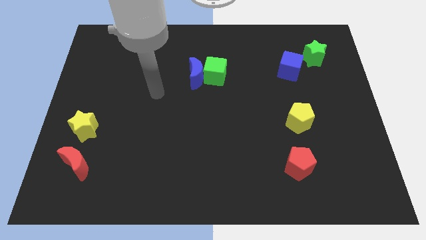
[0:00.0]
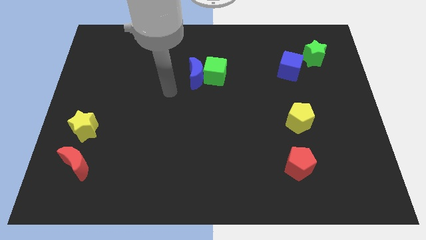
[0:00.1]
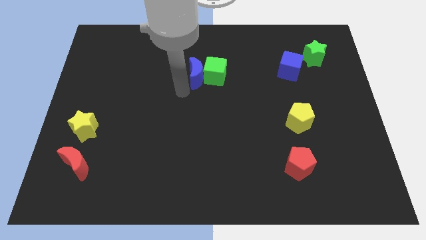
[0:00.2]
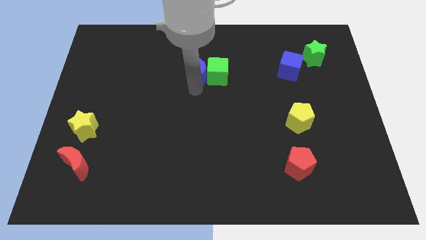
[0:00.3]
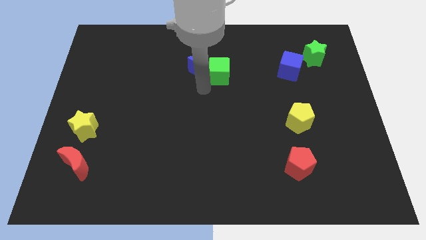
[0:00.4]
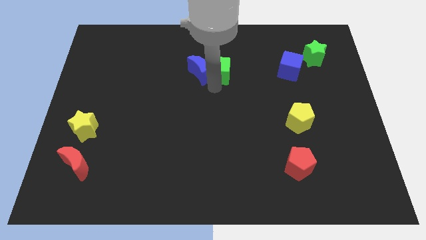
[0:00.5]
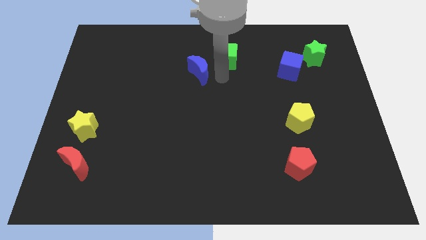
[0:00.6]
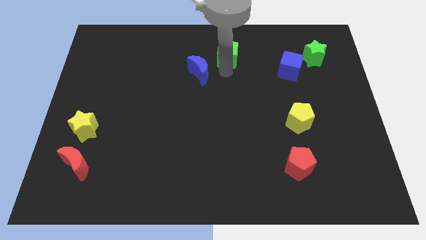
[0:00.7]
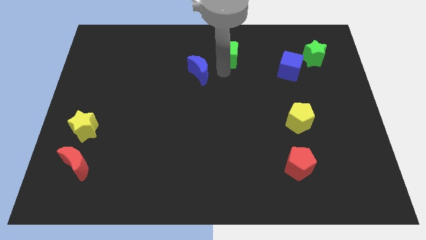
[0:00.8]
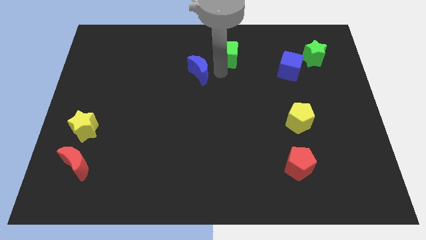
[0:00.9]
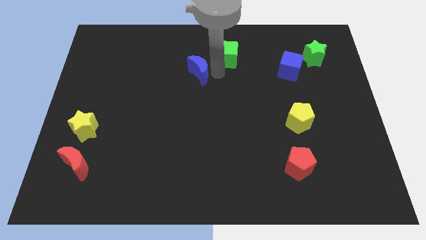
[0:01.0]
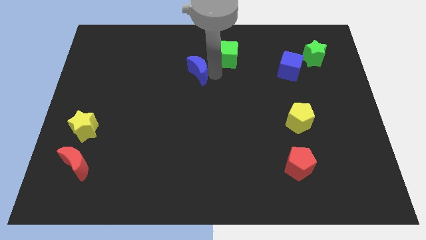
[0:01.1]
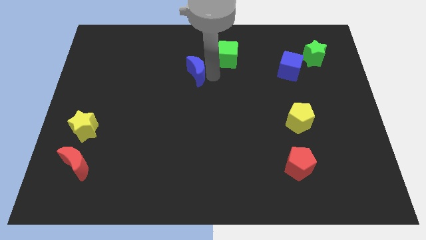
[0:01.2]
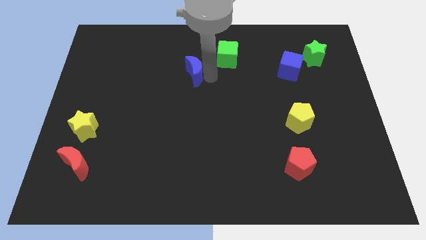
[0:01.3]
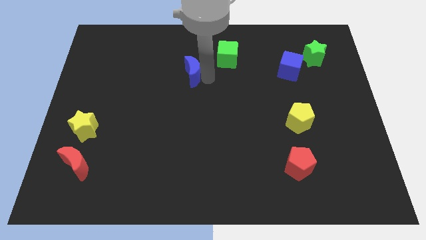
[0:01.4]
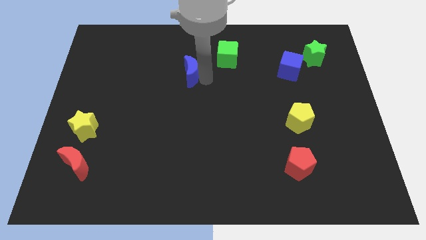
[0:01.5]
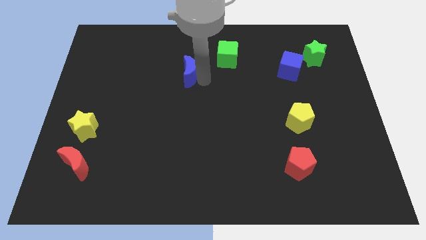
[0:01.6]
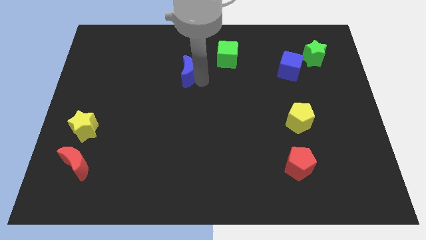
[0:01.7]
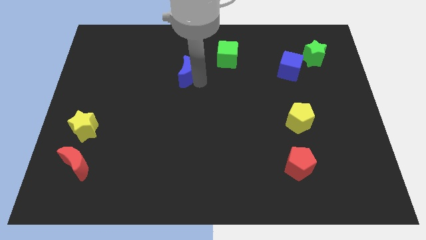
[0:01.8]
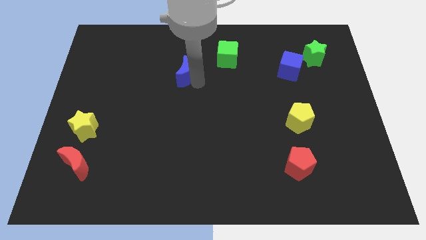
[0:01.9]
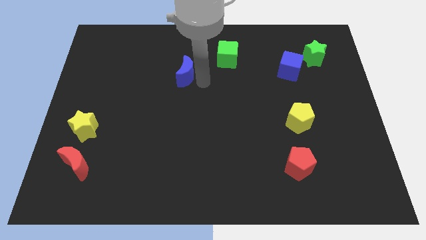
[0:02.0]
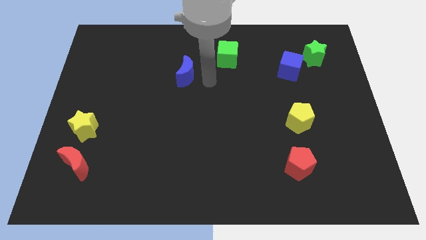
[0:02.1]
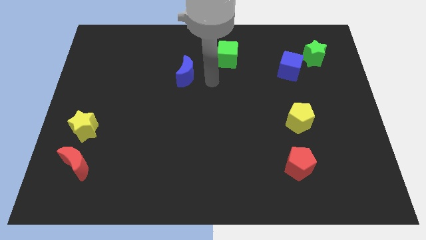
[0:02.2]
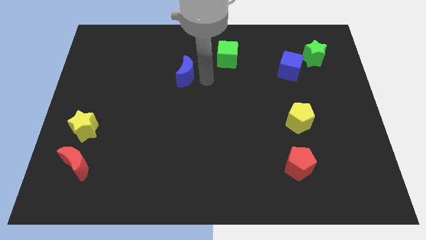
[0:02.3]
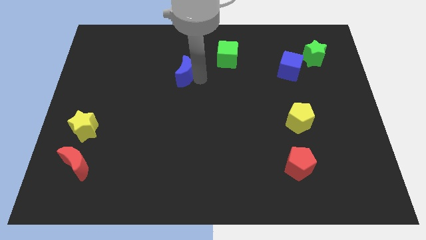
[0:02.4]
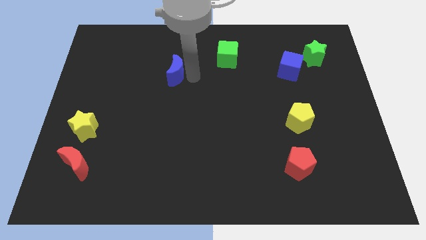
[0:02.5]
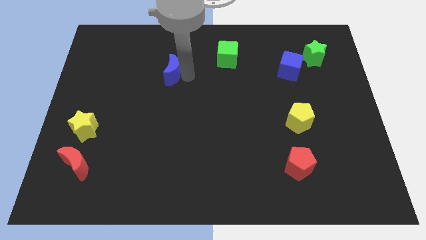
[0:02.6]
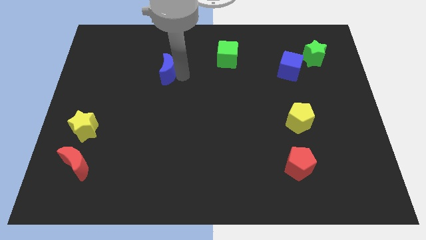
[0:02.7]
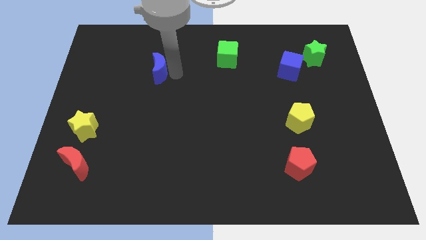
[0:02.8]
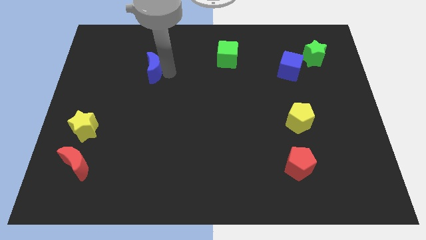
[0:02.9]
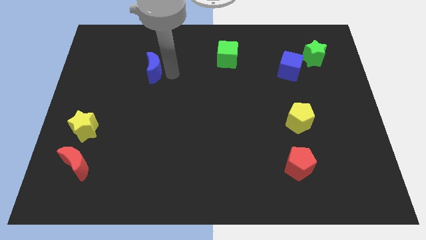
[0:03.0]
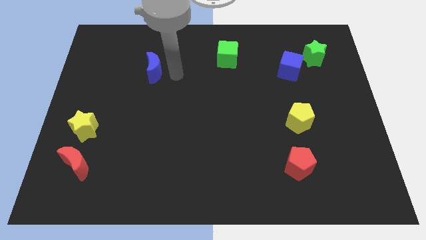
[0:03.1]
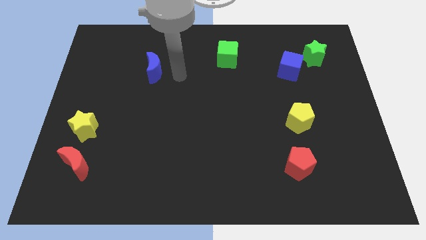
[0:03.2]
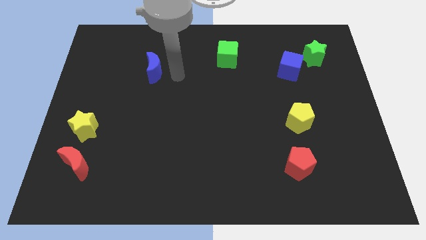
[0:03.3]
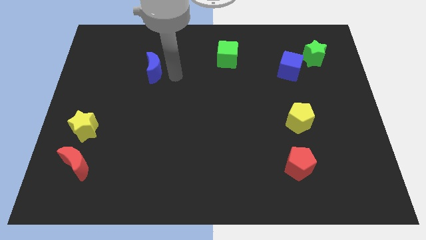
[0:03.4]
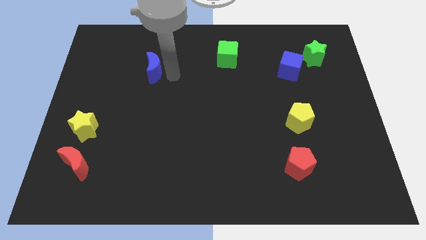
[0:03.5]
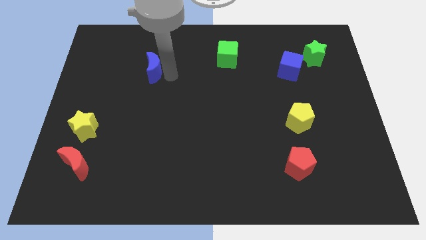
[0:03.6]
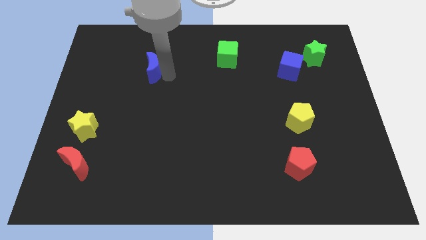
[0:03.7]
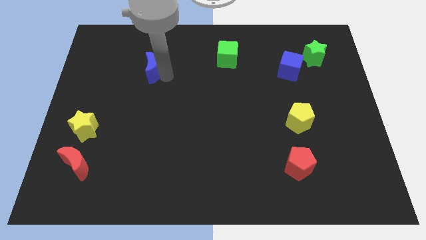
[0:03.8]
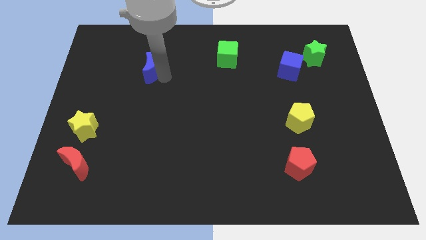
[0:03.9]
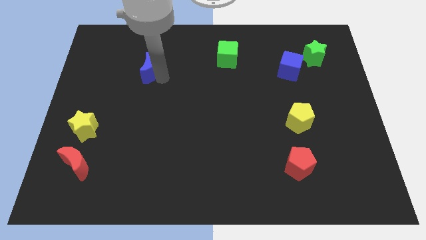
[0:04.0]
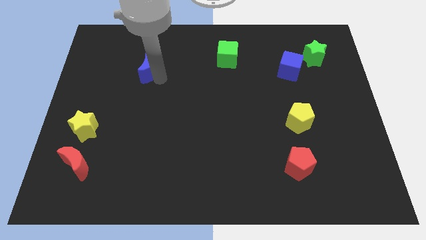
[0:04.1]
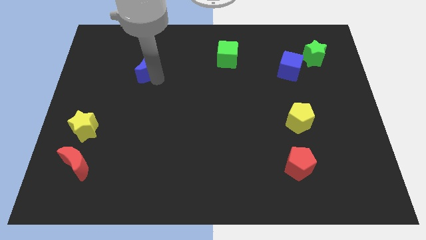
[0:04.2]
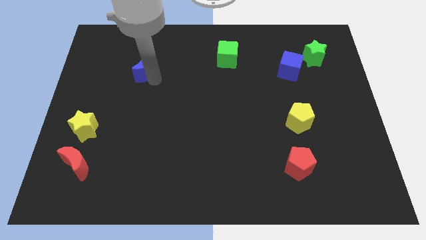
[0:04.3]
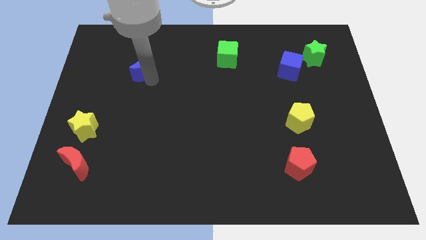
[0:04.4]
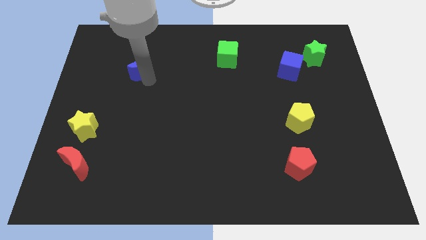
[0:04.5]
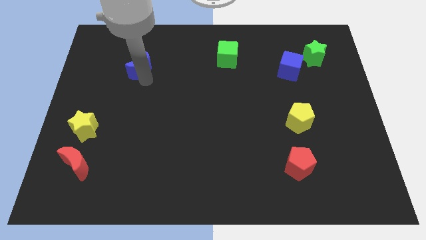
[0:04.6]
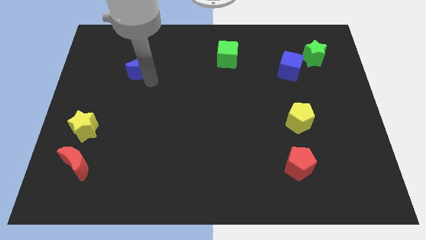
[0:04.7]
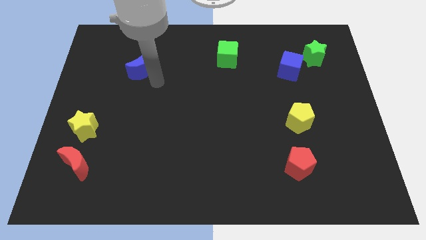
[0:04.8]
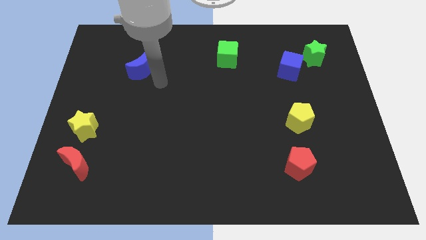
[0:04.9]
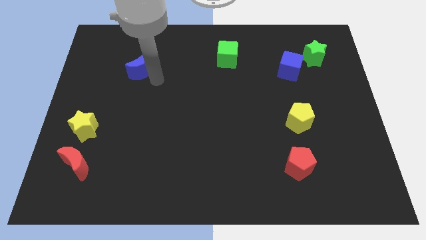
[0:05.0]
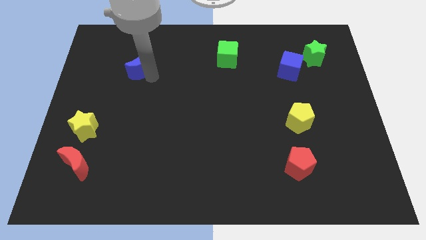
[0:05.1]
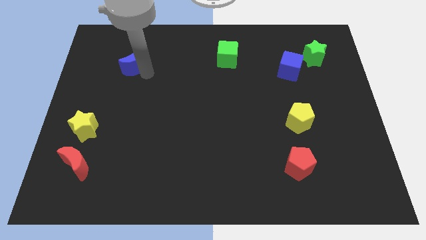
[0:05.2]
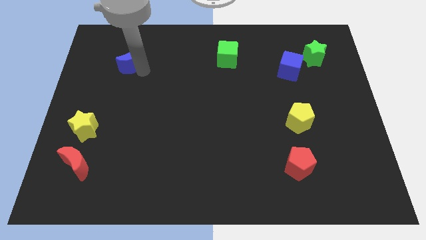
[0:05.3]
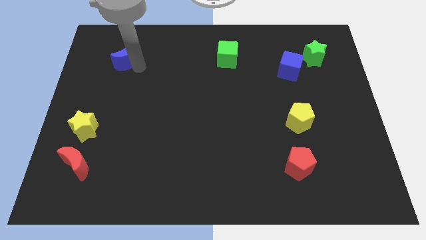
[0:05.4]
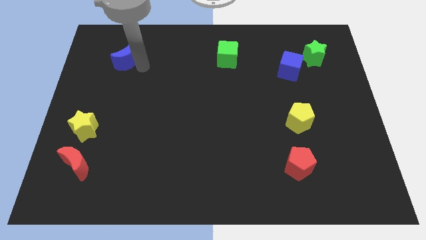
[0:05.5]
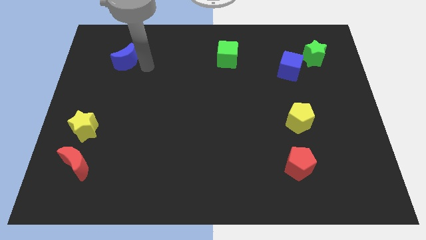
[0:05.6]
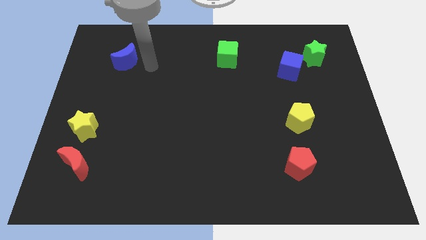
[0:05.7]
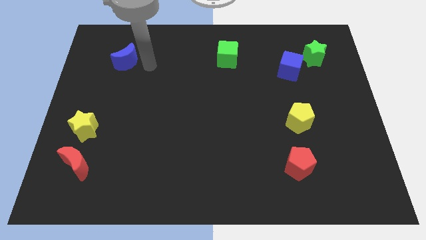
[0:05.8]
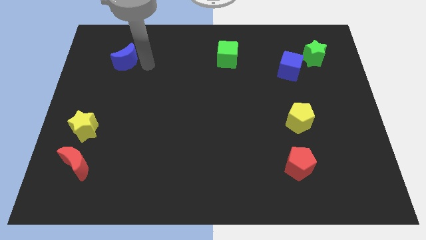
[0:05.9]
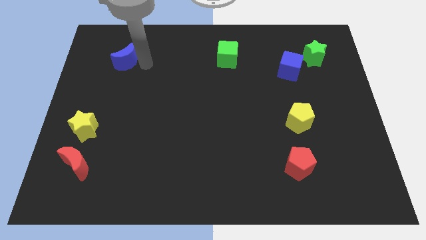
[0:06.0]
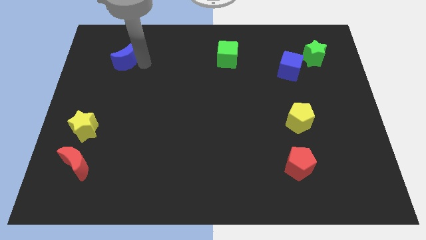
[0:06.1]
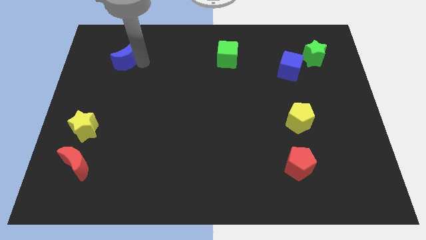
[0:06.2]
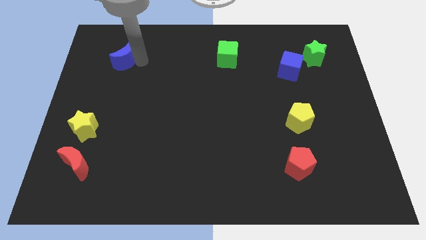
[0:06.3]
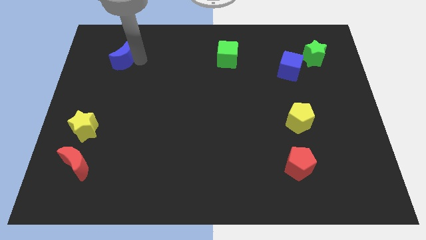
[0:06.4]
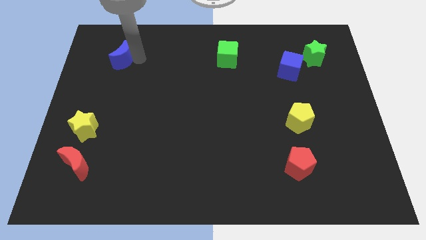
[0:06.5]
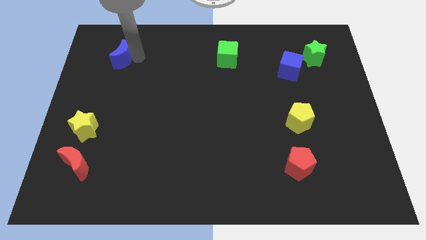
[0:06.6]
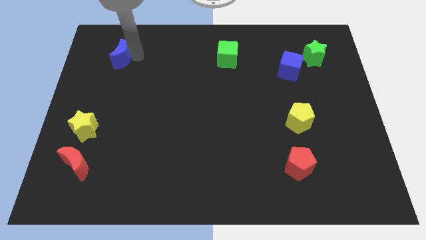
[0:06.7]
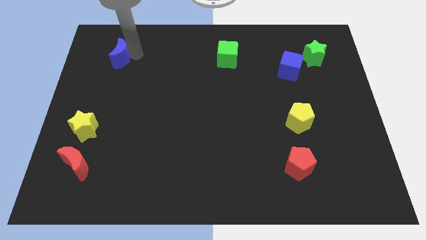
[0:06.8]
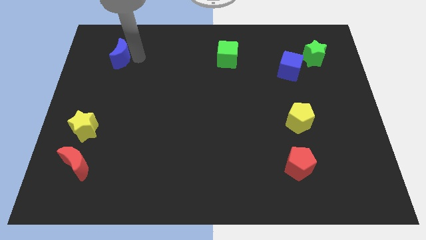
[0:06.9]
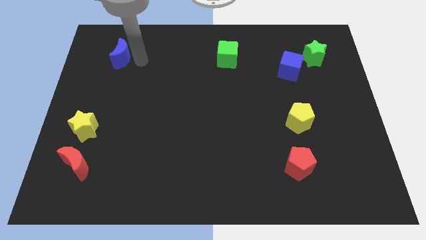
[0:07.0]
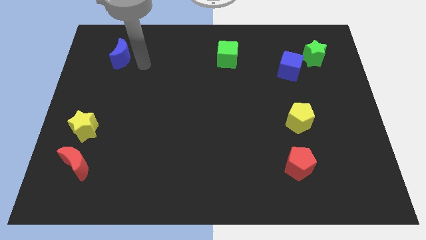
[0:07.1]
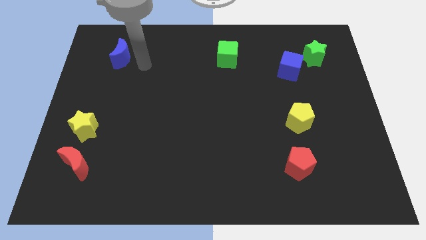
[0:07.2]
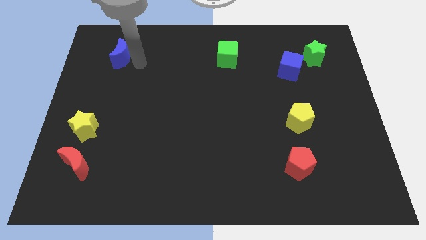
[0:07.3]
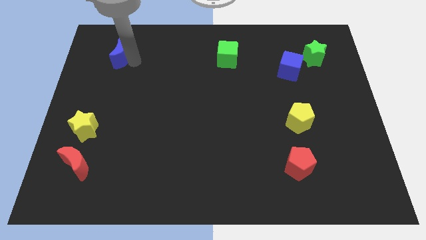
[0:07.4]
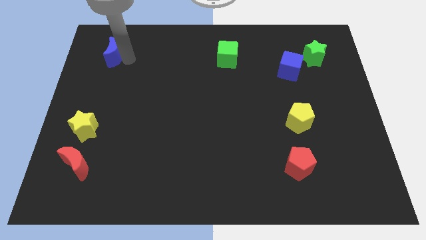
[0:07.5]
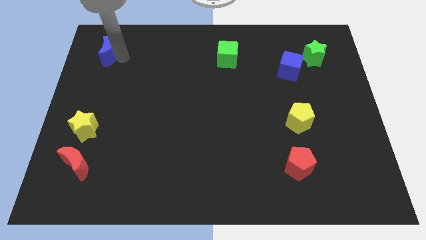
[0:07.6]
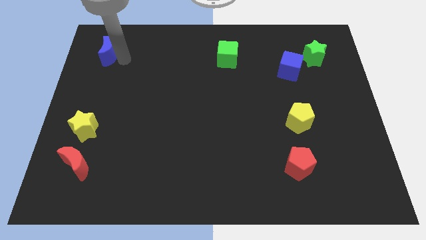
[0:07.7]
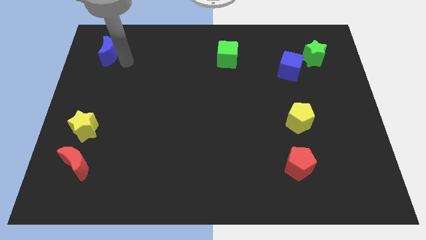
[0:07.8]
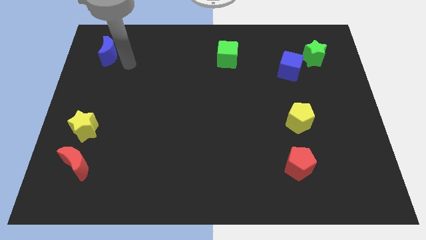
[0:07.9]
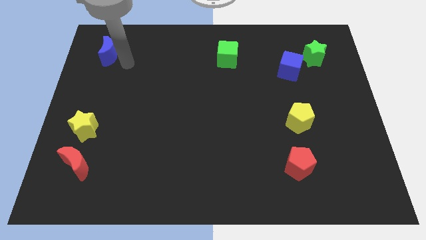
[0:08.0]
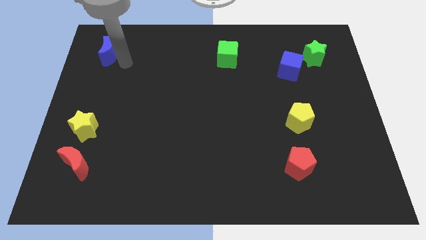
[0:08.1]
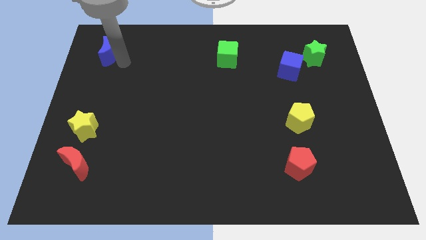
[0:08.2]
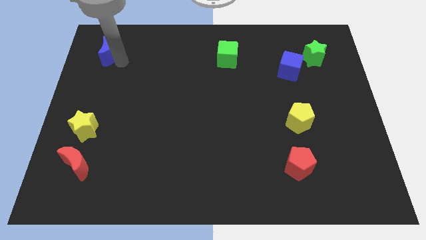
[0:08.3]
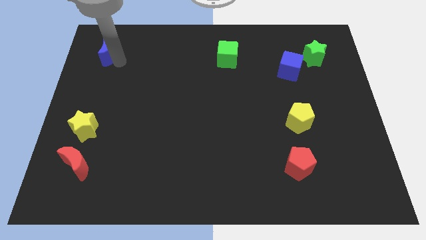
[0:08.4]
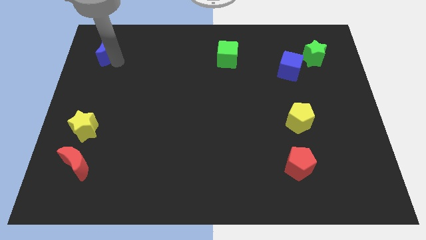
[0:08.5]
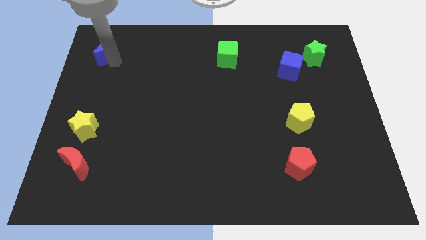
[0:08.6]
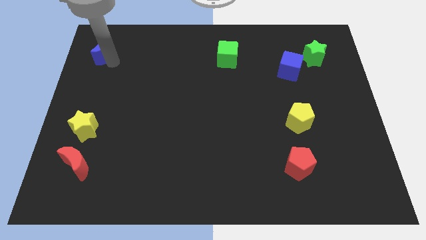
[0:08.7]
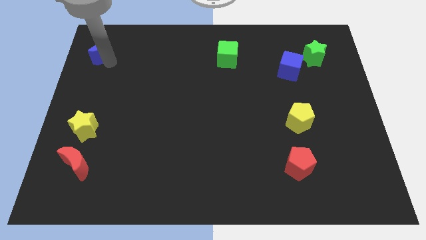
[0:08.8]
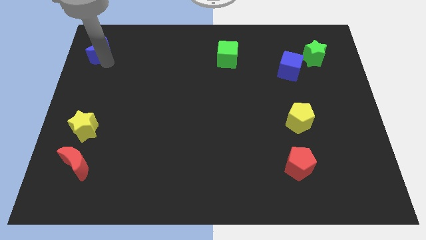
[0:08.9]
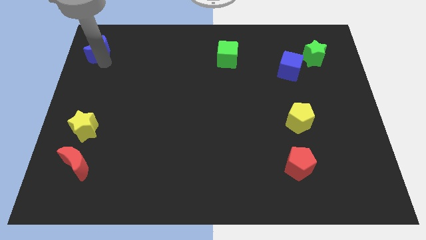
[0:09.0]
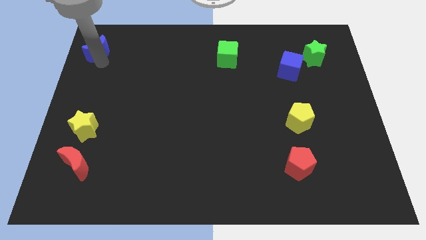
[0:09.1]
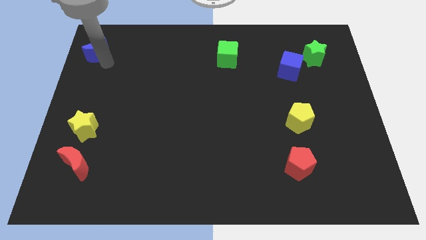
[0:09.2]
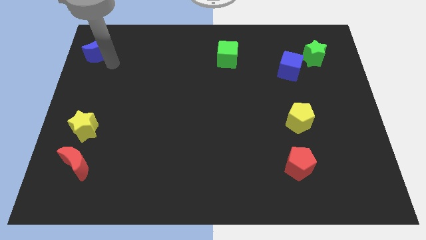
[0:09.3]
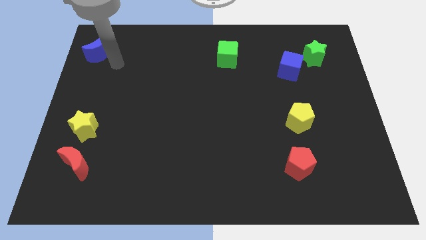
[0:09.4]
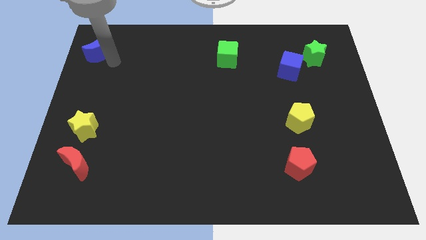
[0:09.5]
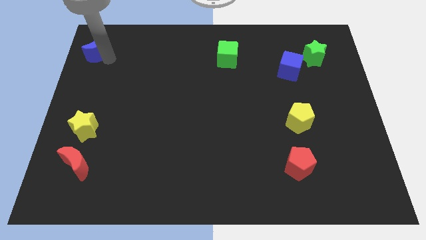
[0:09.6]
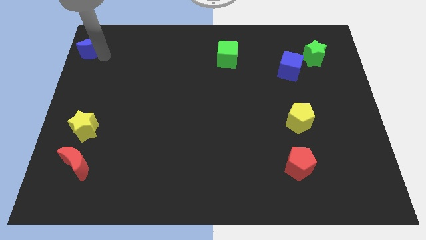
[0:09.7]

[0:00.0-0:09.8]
put the blue moon to the top left
